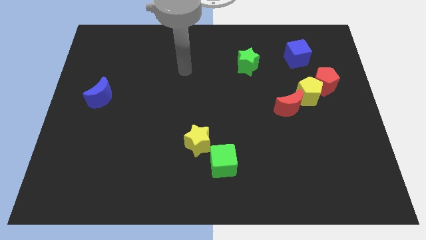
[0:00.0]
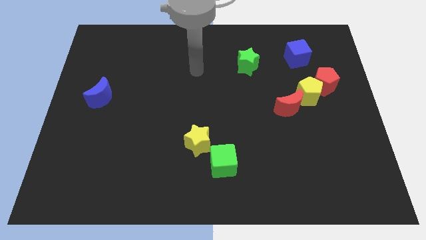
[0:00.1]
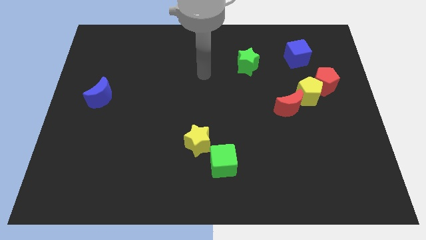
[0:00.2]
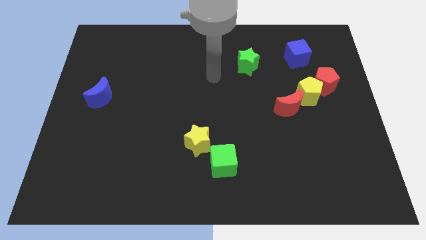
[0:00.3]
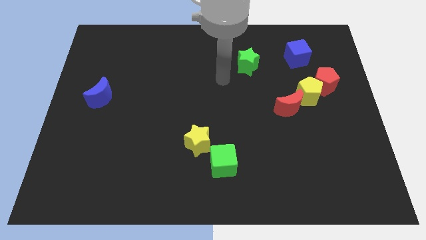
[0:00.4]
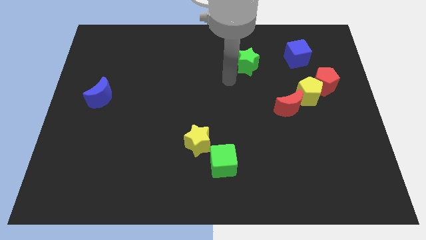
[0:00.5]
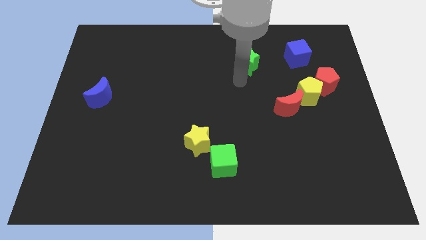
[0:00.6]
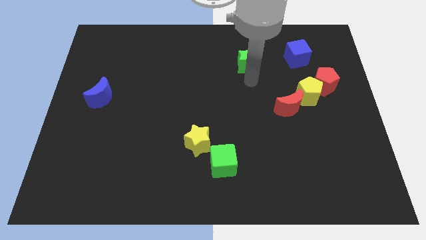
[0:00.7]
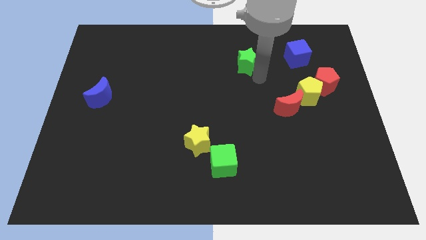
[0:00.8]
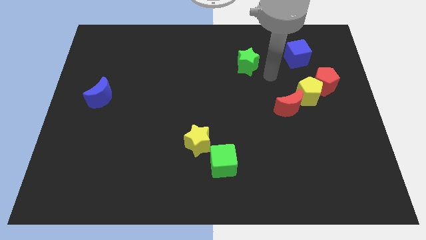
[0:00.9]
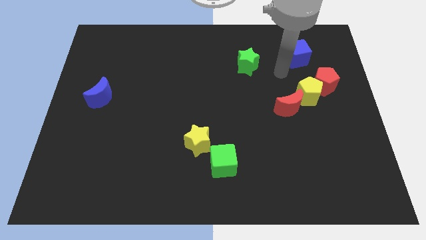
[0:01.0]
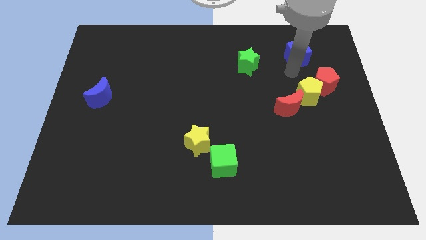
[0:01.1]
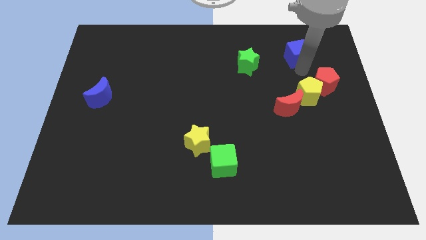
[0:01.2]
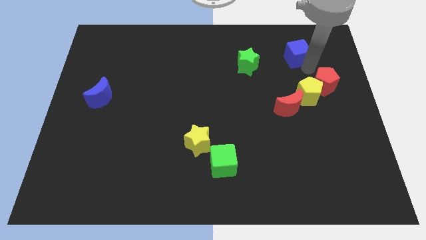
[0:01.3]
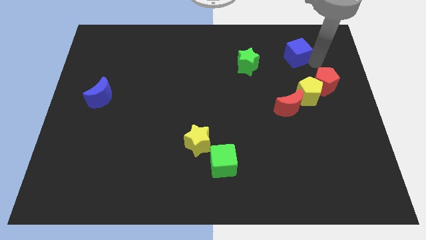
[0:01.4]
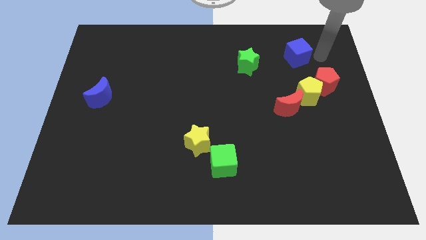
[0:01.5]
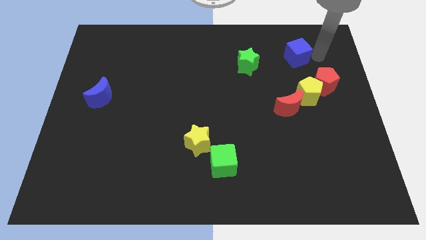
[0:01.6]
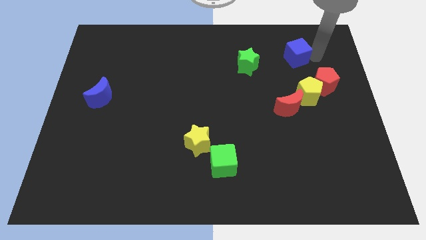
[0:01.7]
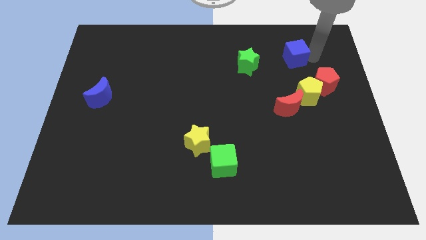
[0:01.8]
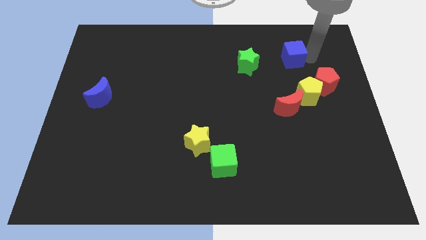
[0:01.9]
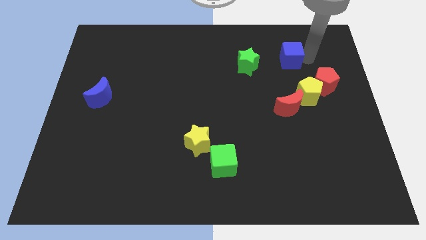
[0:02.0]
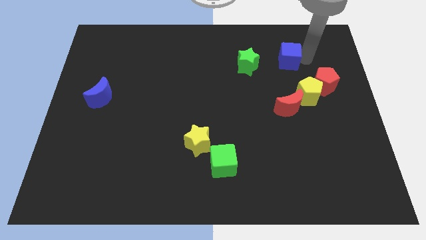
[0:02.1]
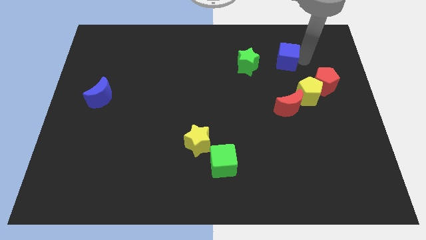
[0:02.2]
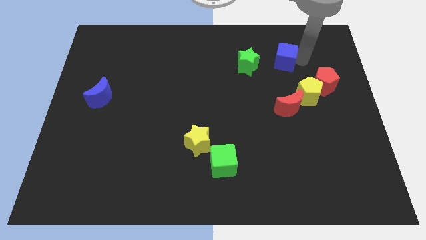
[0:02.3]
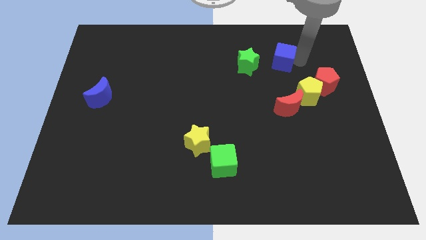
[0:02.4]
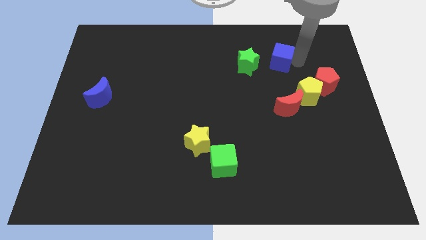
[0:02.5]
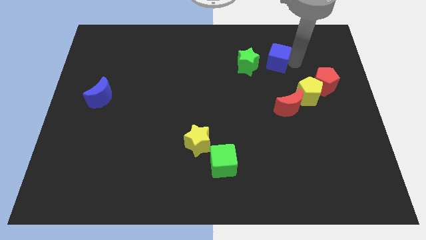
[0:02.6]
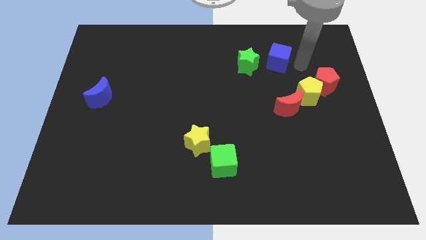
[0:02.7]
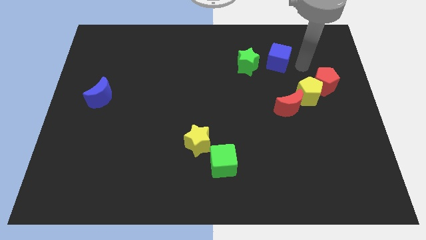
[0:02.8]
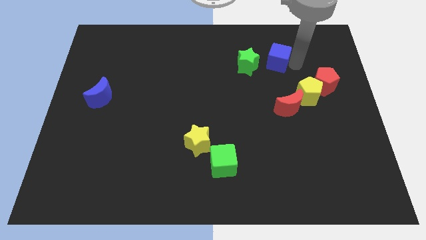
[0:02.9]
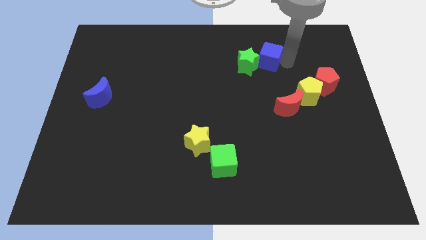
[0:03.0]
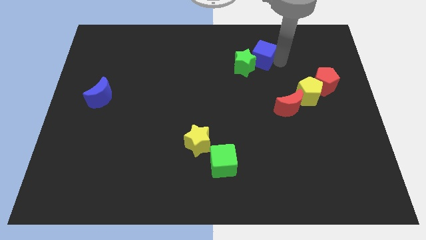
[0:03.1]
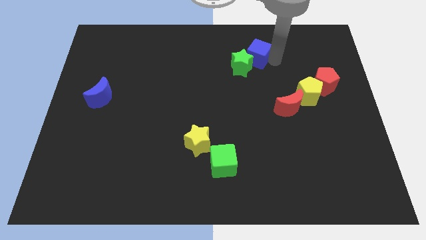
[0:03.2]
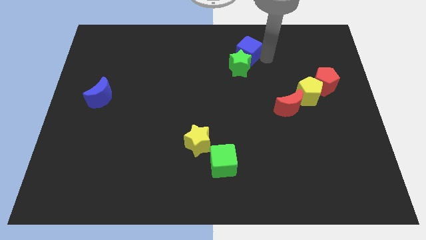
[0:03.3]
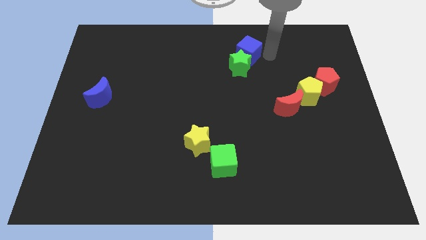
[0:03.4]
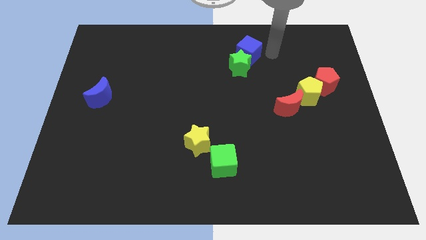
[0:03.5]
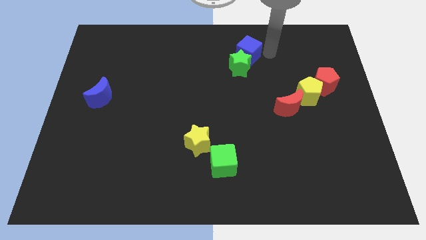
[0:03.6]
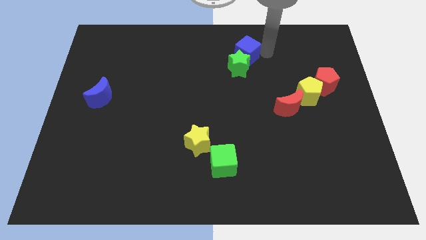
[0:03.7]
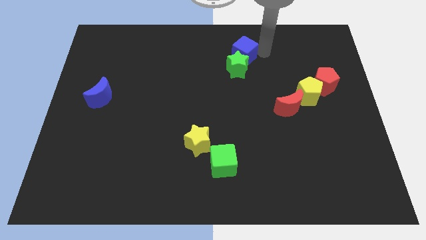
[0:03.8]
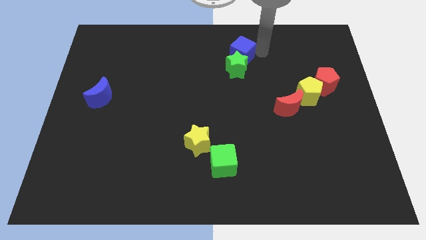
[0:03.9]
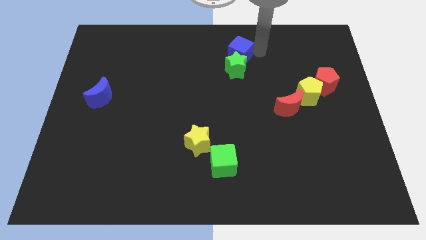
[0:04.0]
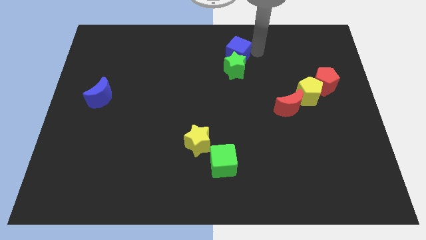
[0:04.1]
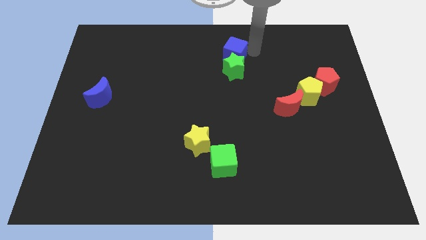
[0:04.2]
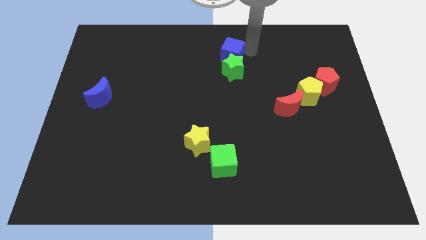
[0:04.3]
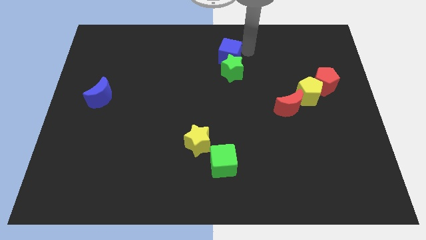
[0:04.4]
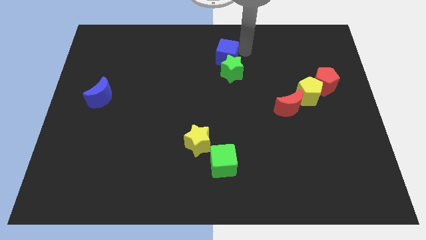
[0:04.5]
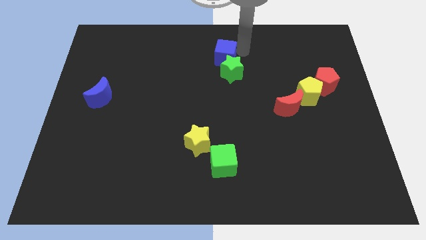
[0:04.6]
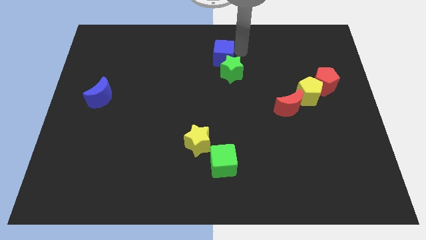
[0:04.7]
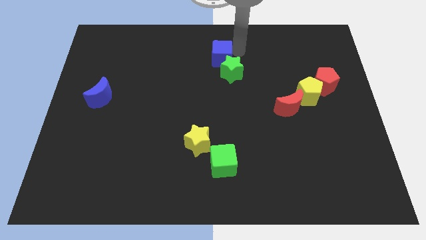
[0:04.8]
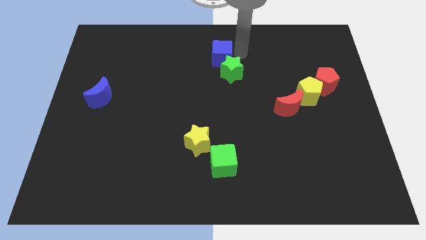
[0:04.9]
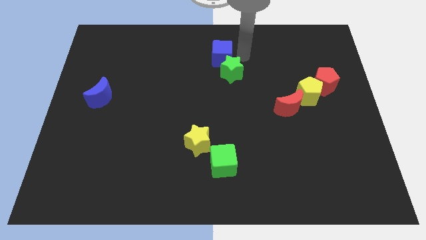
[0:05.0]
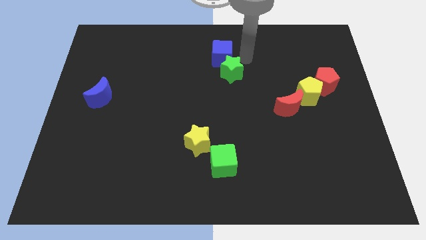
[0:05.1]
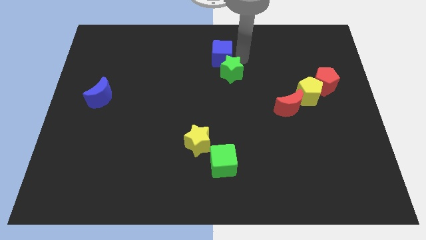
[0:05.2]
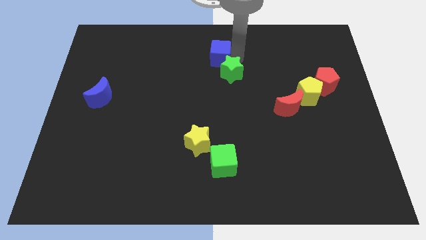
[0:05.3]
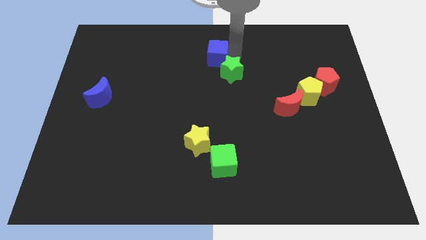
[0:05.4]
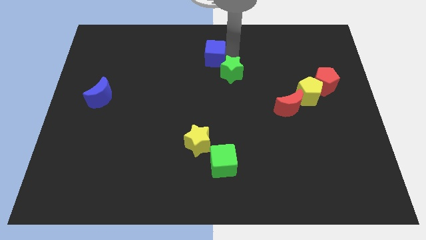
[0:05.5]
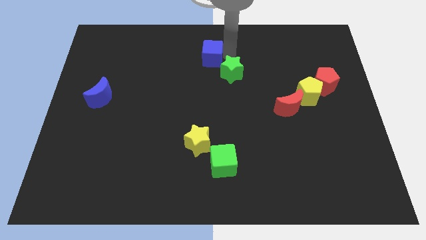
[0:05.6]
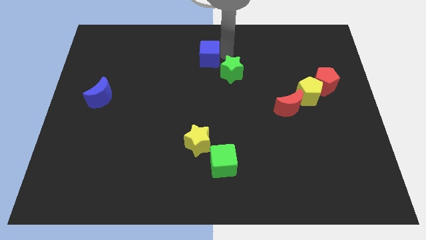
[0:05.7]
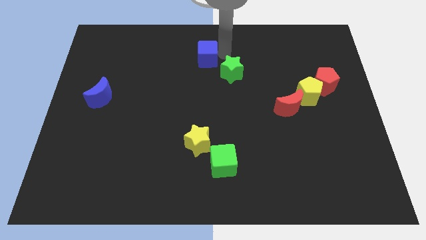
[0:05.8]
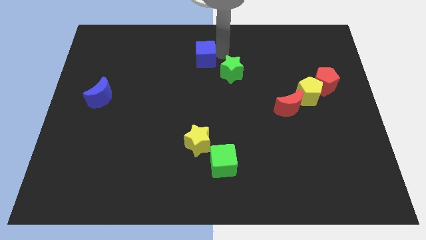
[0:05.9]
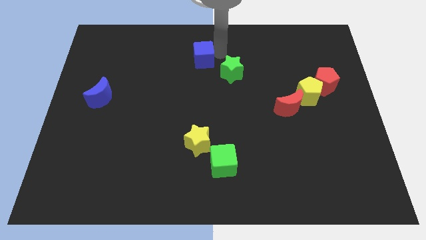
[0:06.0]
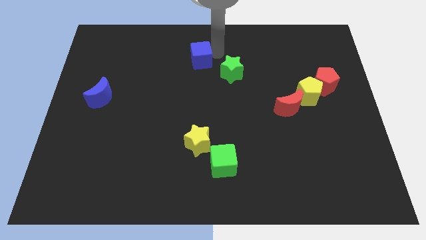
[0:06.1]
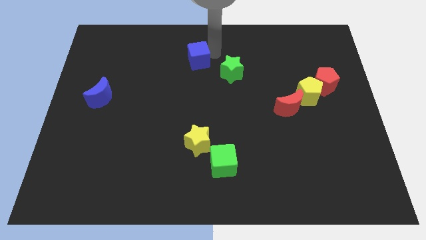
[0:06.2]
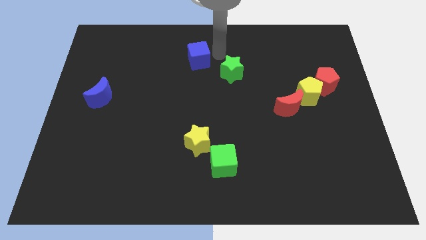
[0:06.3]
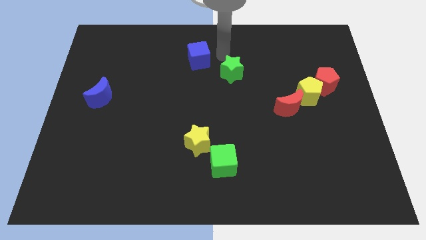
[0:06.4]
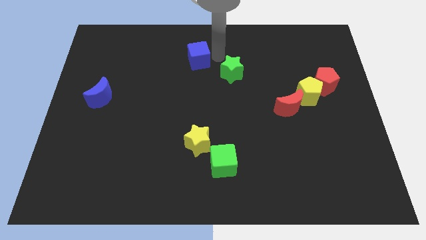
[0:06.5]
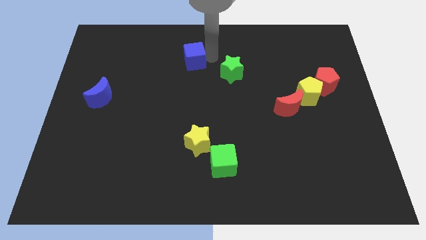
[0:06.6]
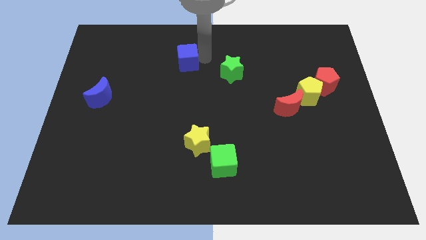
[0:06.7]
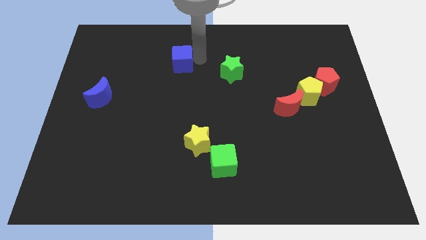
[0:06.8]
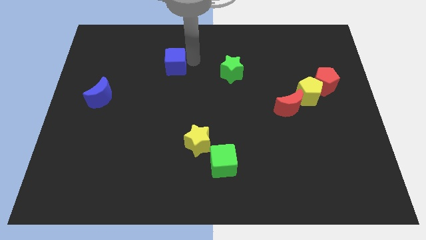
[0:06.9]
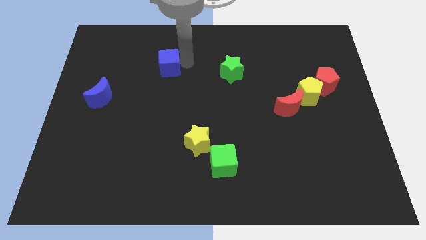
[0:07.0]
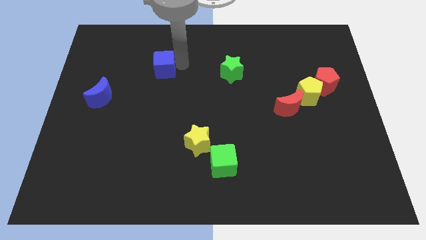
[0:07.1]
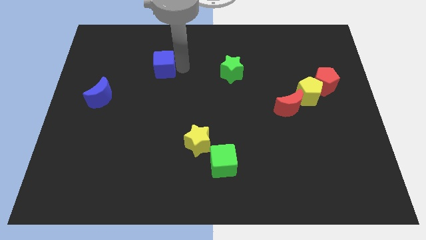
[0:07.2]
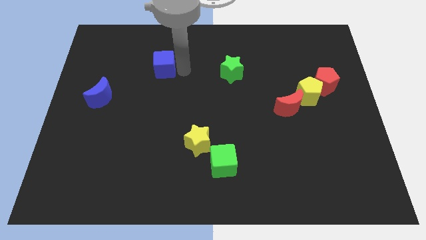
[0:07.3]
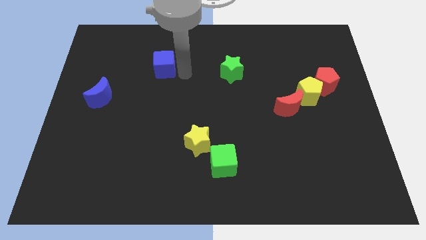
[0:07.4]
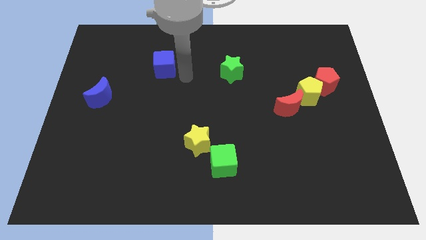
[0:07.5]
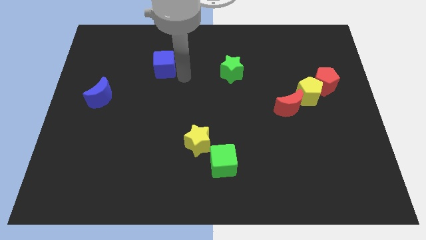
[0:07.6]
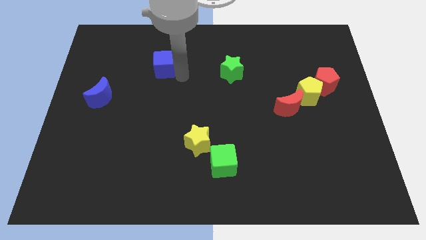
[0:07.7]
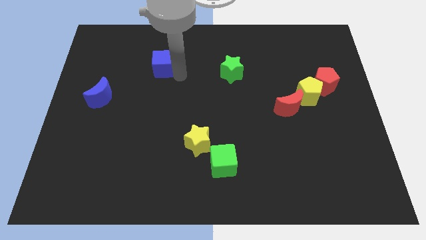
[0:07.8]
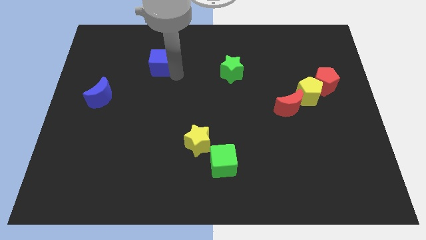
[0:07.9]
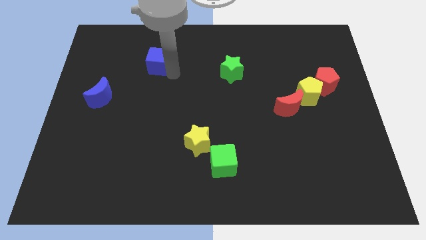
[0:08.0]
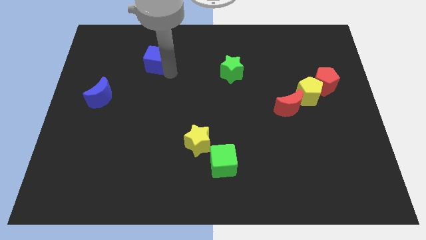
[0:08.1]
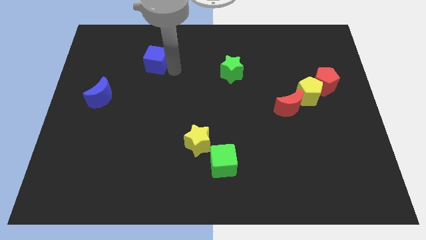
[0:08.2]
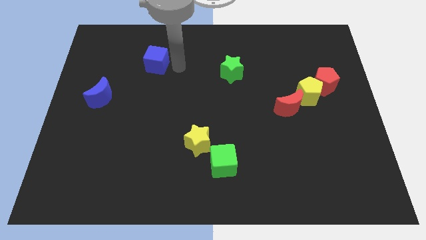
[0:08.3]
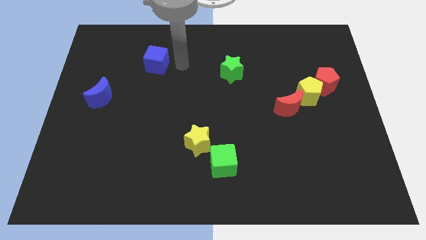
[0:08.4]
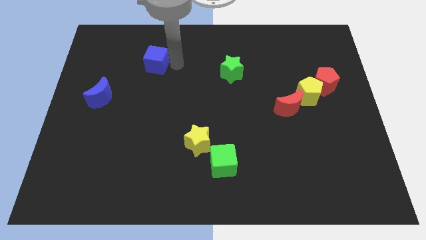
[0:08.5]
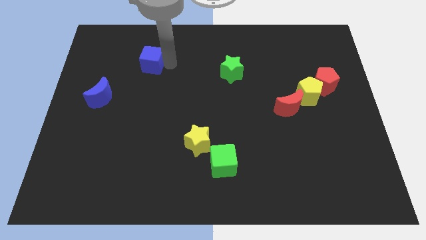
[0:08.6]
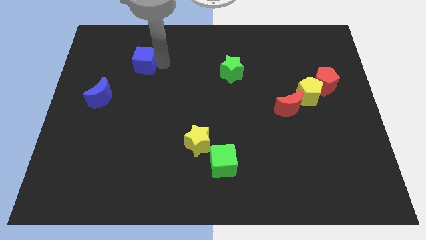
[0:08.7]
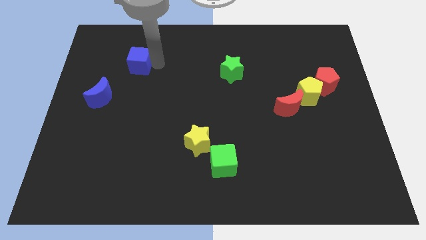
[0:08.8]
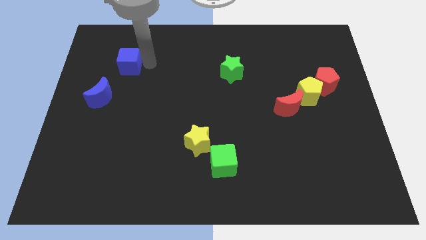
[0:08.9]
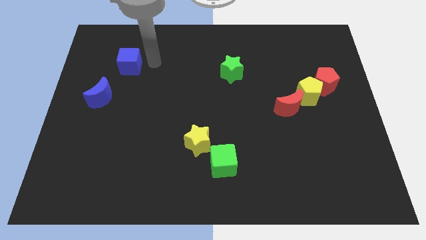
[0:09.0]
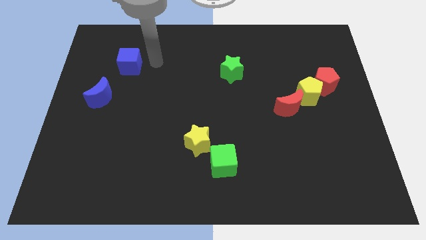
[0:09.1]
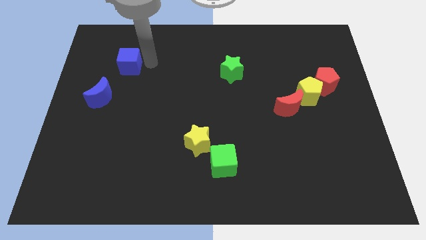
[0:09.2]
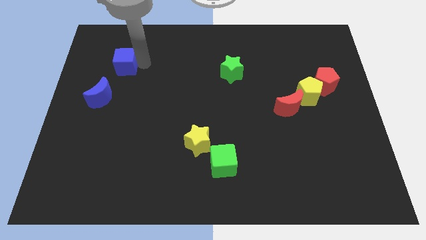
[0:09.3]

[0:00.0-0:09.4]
put the blue cube above the blue moon
